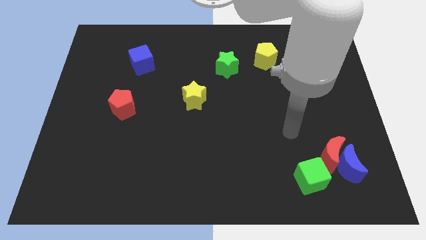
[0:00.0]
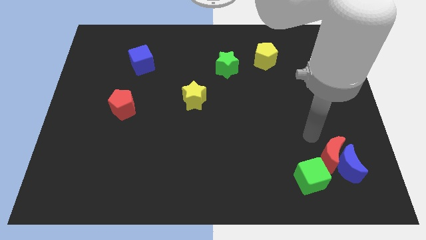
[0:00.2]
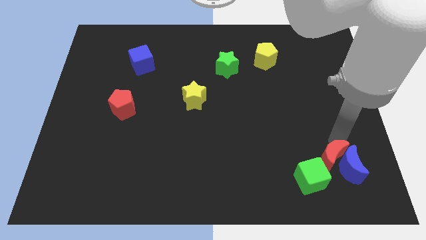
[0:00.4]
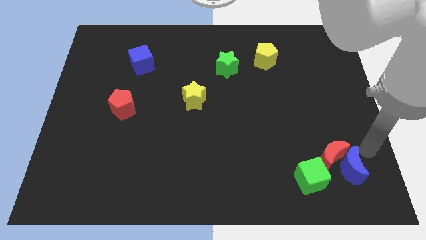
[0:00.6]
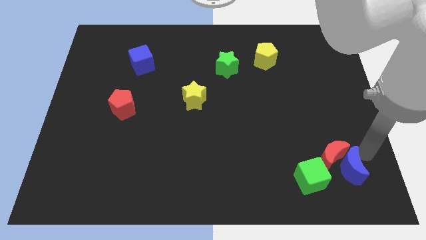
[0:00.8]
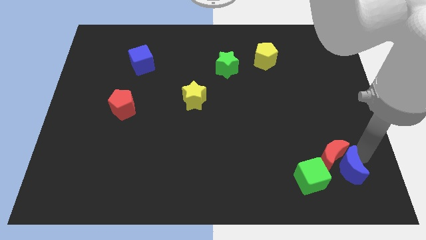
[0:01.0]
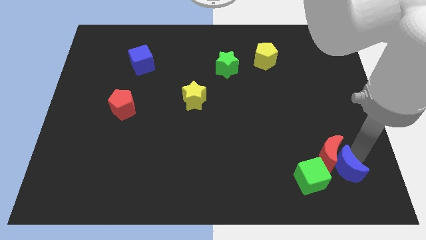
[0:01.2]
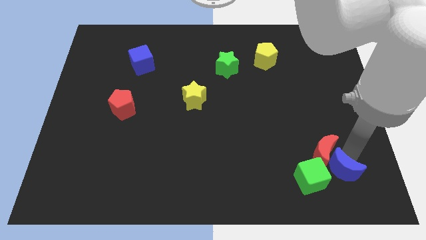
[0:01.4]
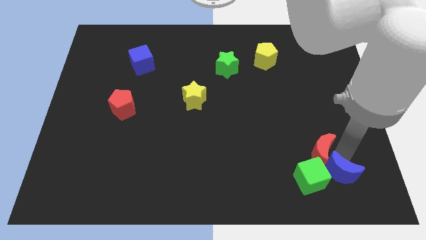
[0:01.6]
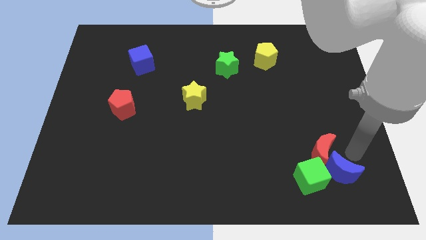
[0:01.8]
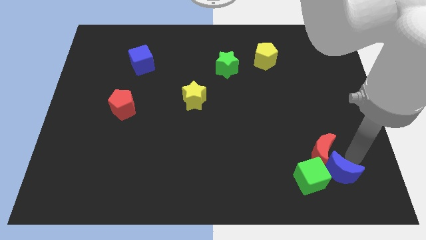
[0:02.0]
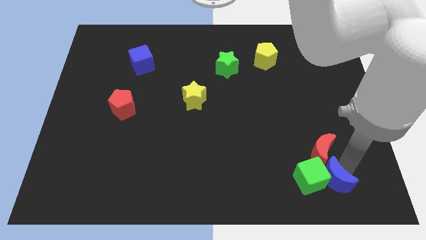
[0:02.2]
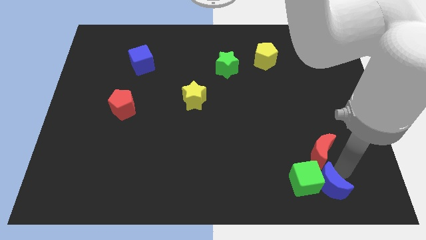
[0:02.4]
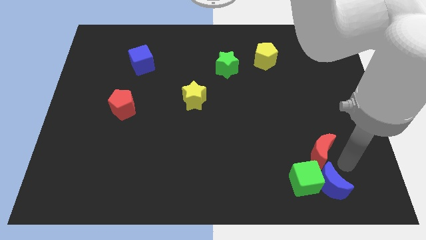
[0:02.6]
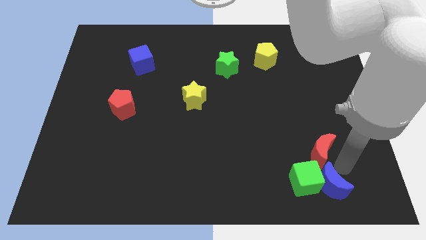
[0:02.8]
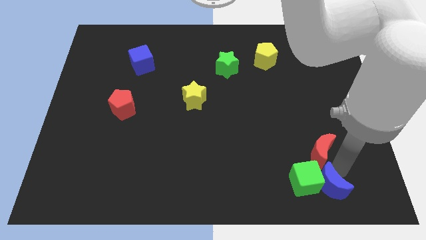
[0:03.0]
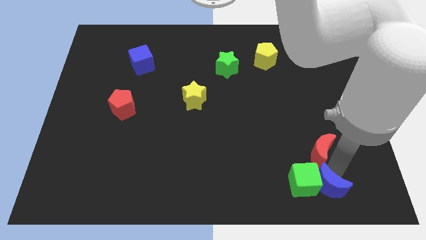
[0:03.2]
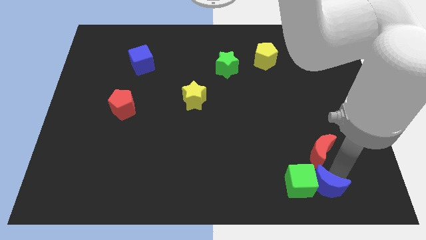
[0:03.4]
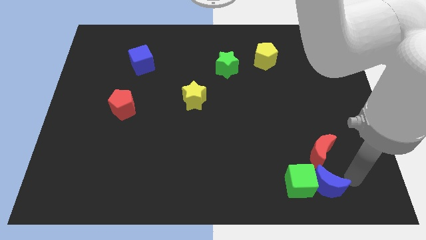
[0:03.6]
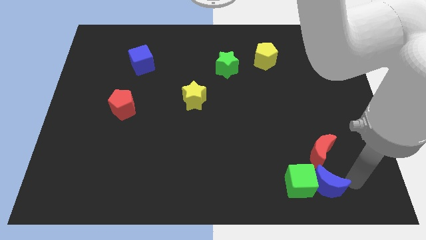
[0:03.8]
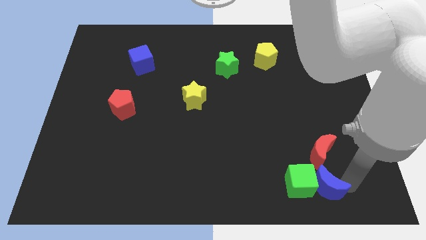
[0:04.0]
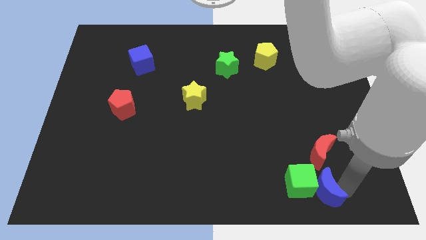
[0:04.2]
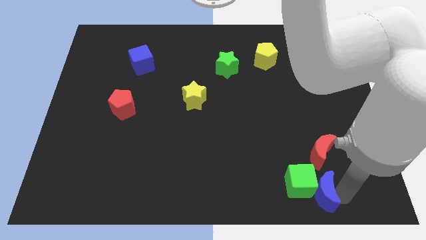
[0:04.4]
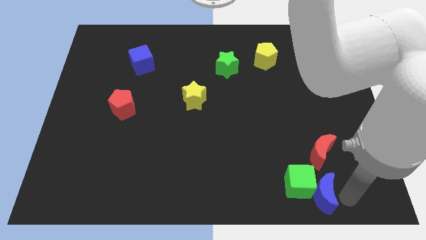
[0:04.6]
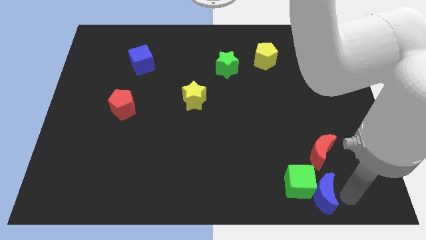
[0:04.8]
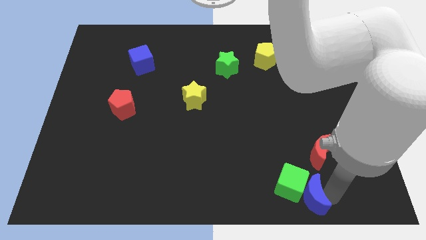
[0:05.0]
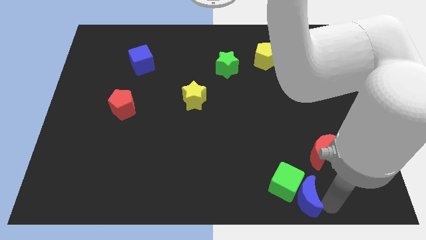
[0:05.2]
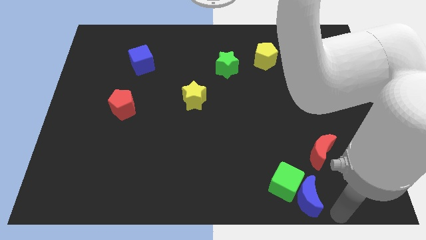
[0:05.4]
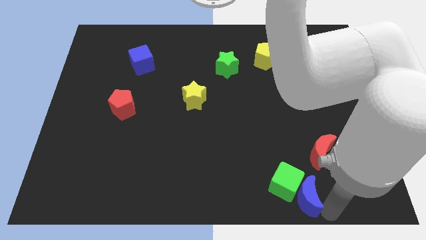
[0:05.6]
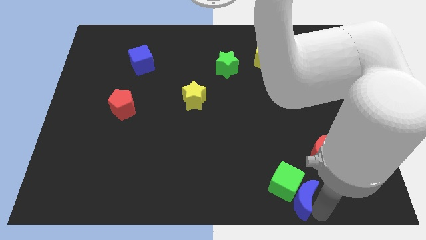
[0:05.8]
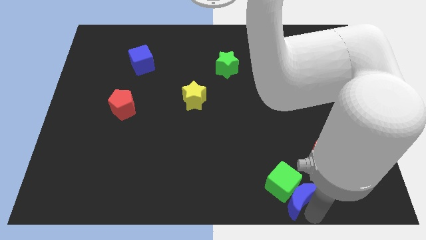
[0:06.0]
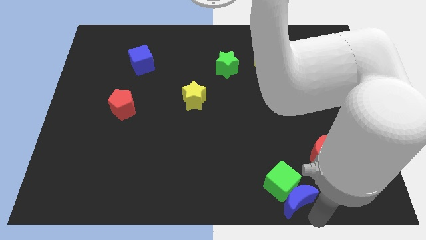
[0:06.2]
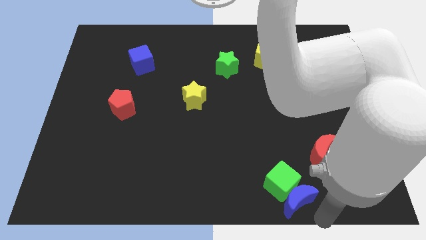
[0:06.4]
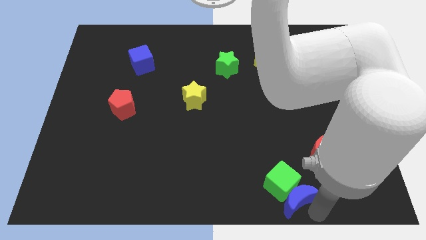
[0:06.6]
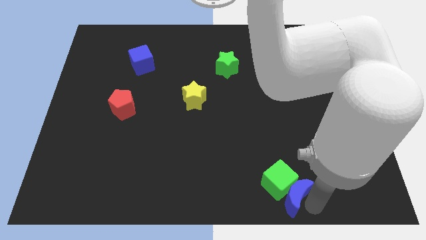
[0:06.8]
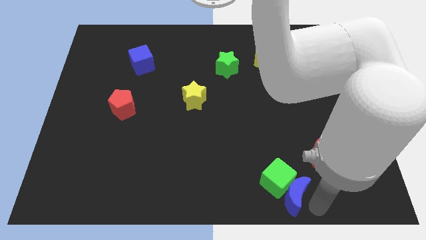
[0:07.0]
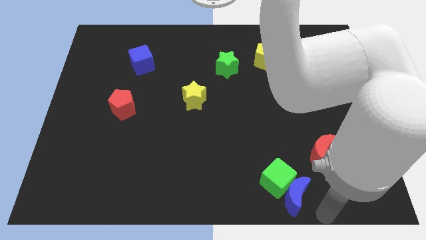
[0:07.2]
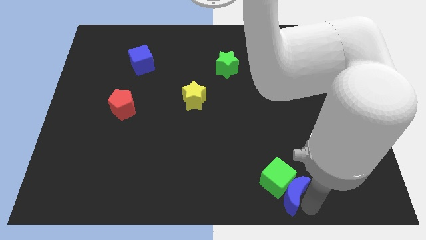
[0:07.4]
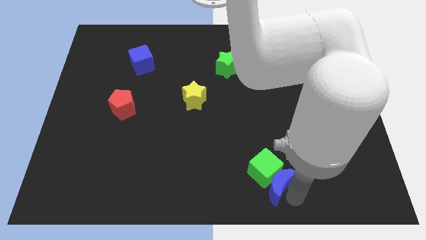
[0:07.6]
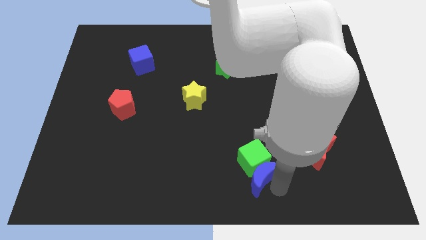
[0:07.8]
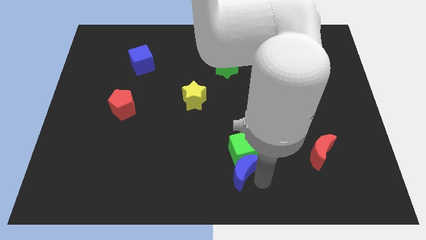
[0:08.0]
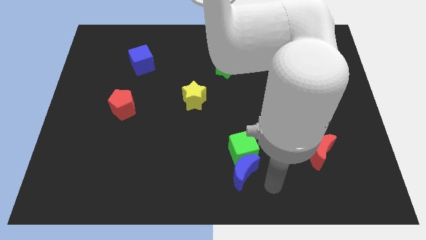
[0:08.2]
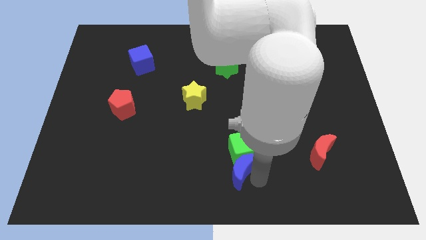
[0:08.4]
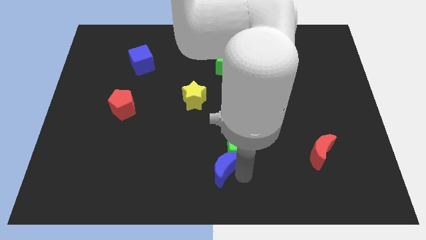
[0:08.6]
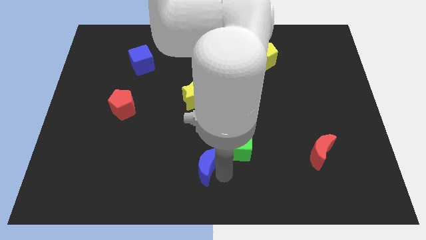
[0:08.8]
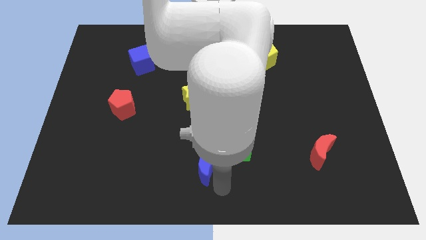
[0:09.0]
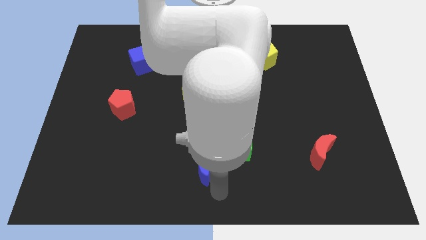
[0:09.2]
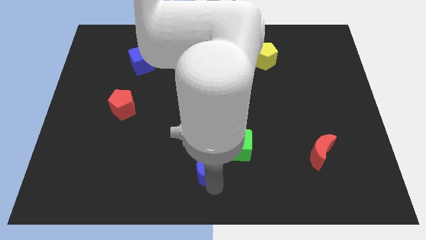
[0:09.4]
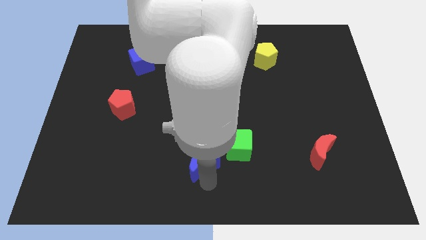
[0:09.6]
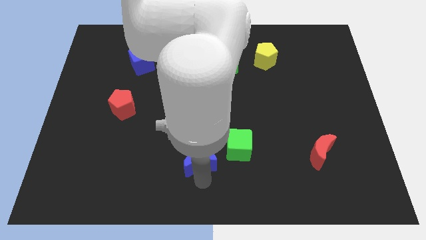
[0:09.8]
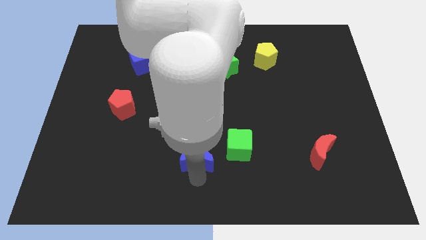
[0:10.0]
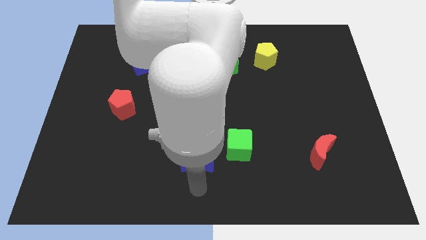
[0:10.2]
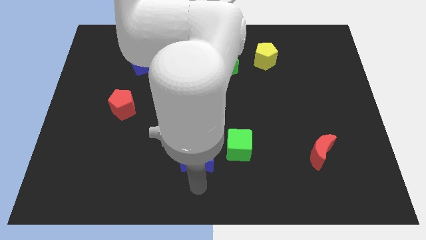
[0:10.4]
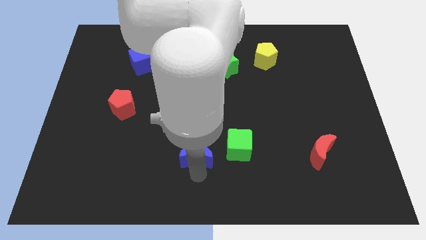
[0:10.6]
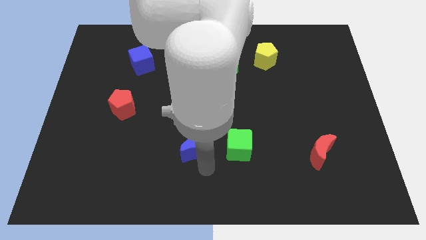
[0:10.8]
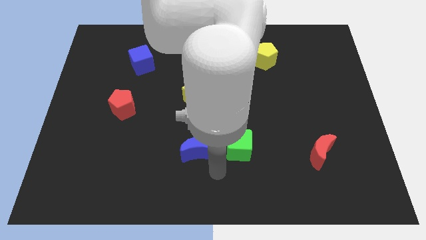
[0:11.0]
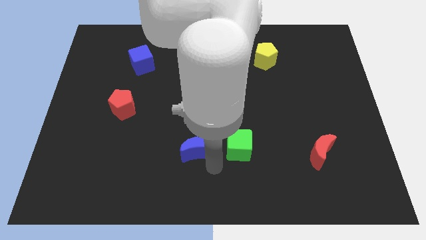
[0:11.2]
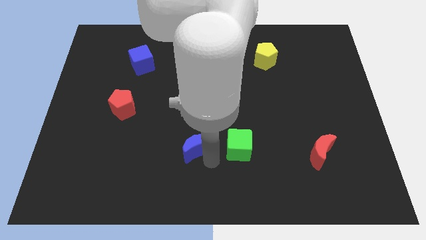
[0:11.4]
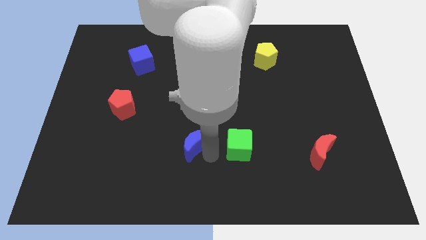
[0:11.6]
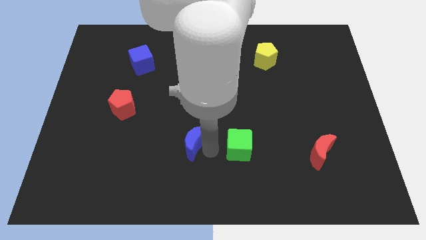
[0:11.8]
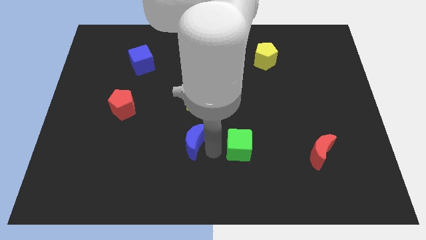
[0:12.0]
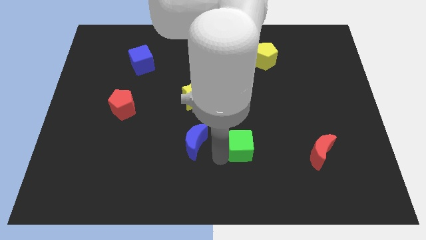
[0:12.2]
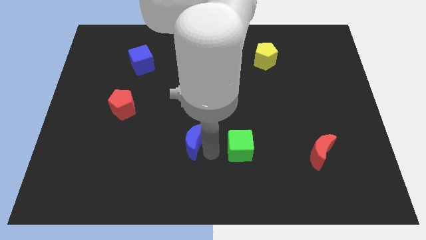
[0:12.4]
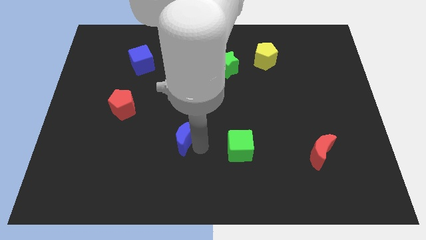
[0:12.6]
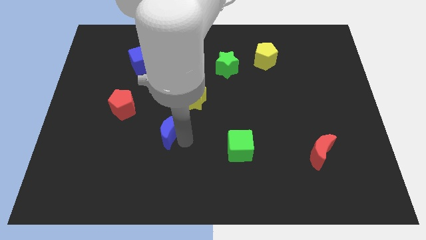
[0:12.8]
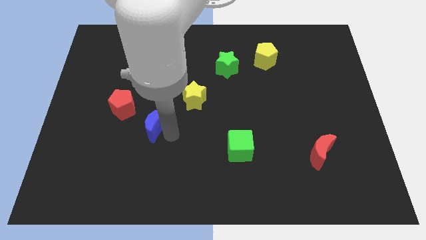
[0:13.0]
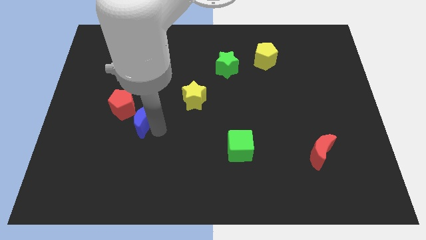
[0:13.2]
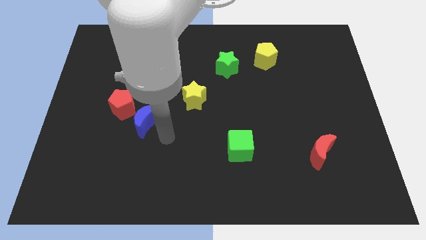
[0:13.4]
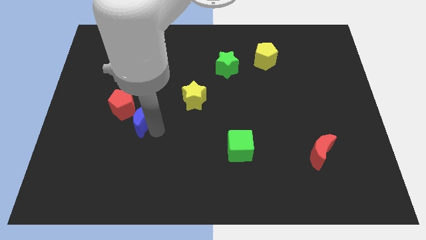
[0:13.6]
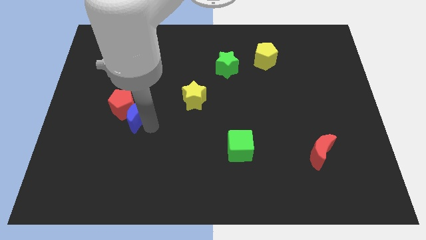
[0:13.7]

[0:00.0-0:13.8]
slide the blue moon towards the red pentagon
